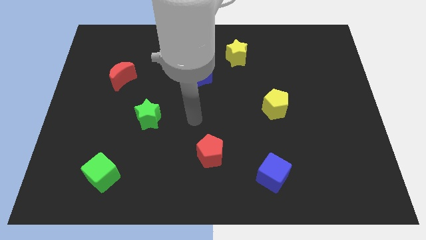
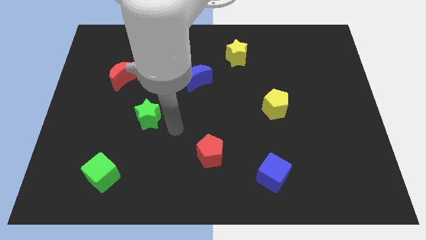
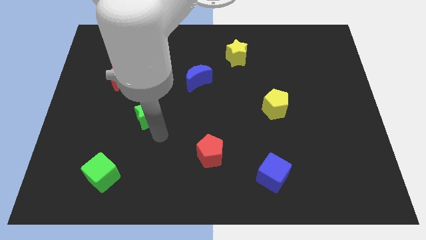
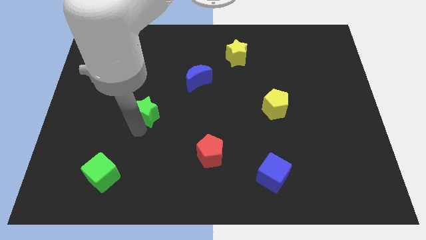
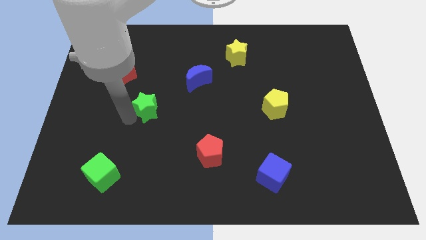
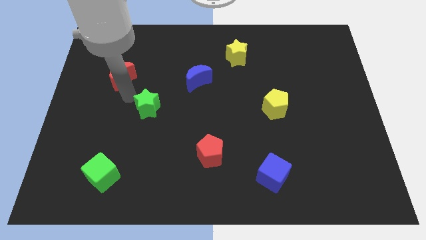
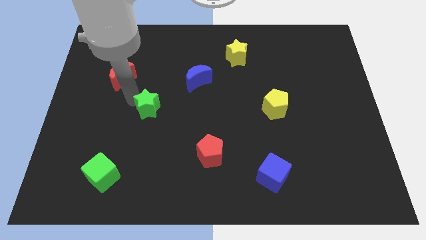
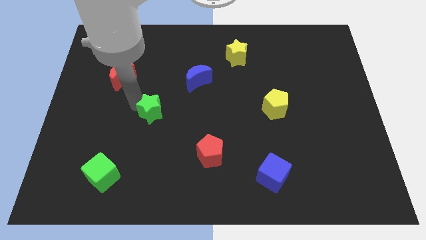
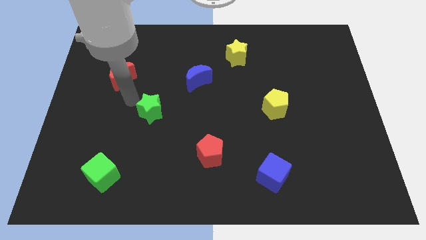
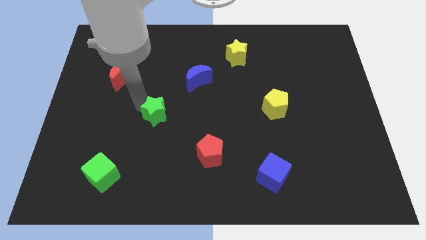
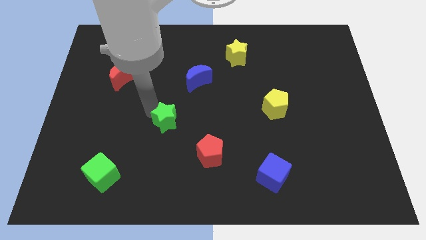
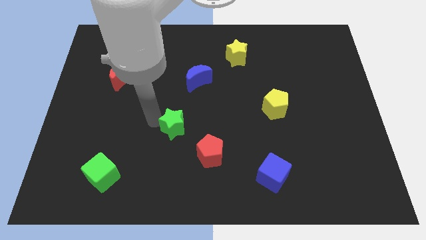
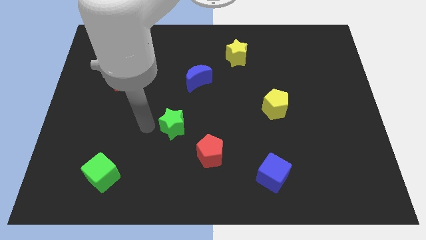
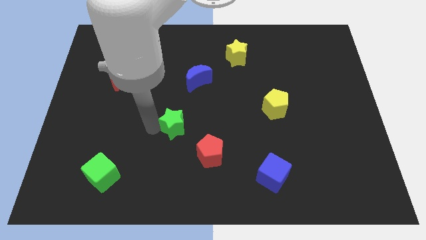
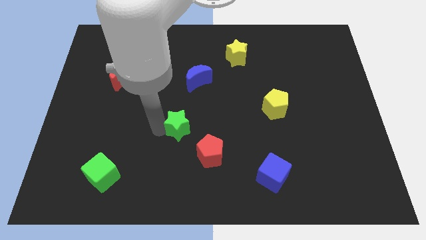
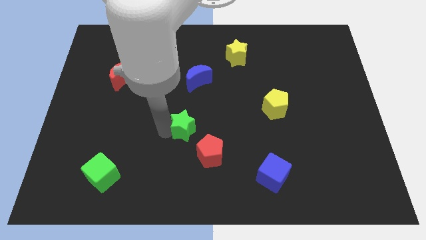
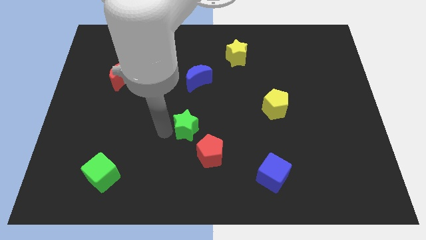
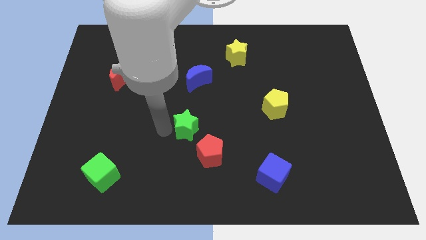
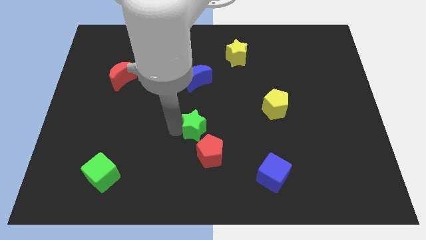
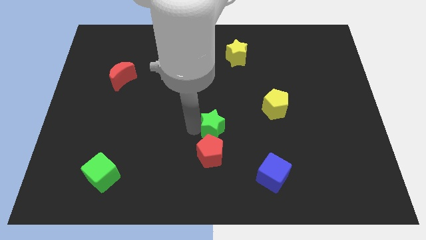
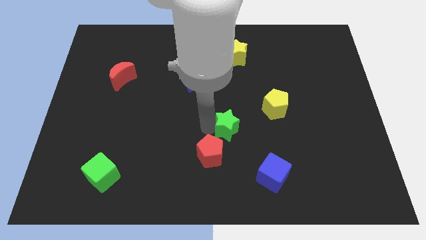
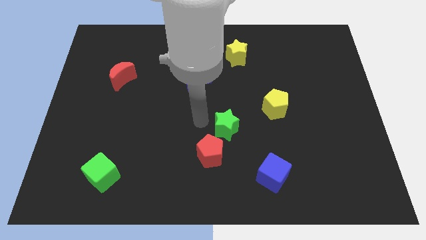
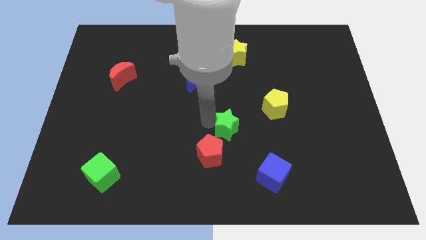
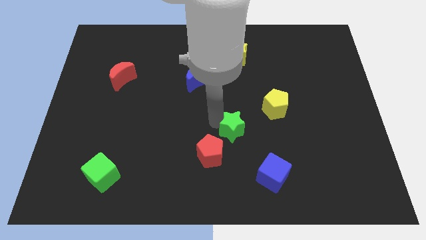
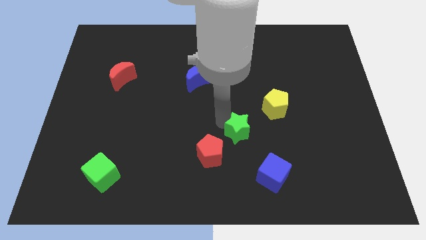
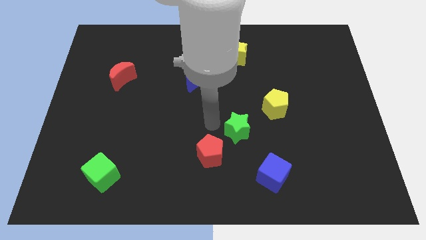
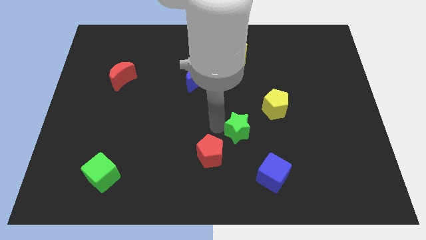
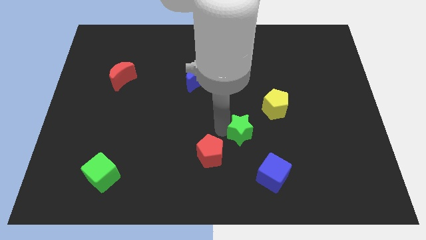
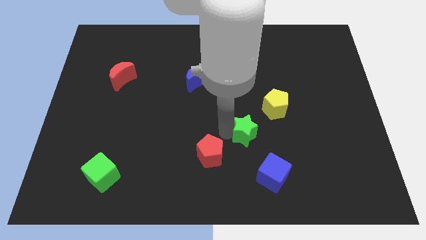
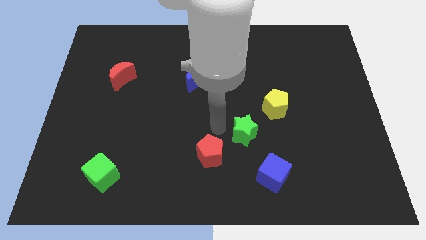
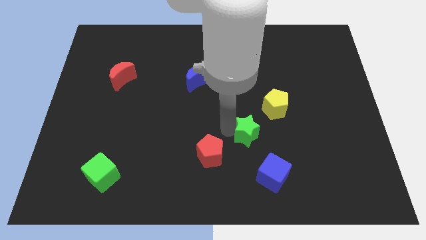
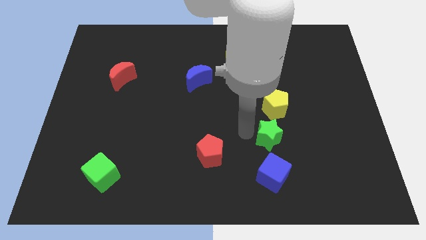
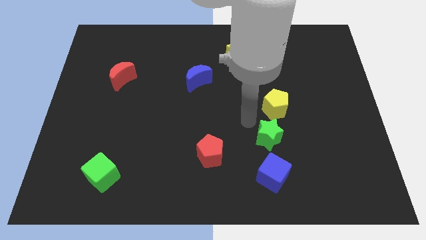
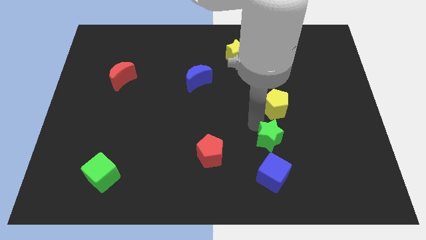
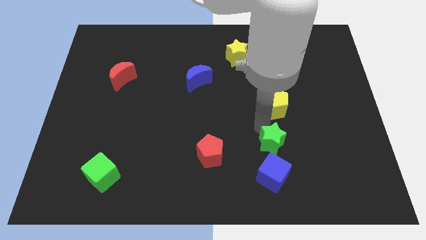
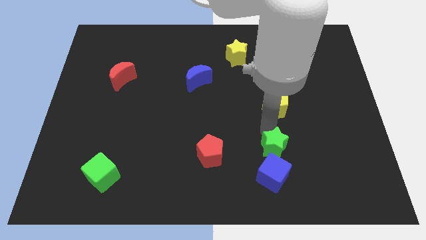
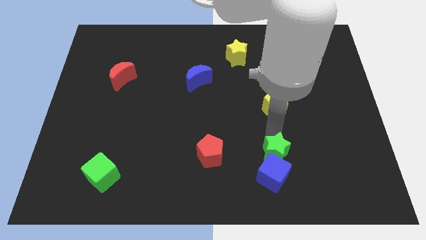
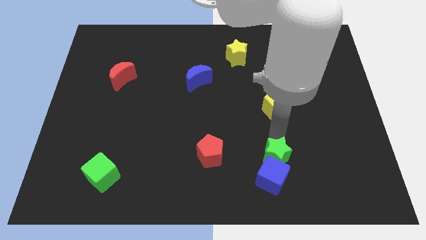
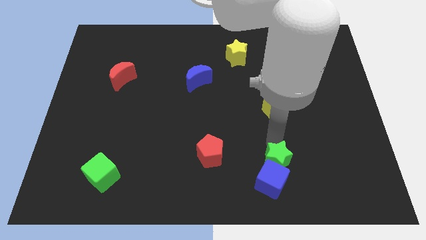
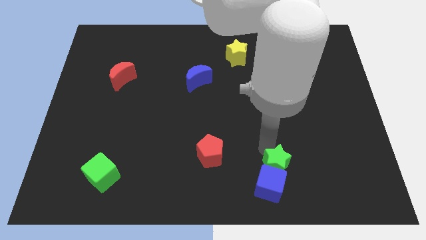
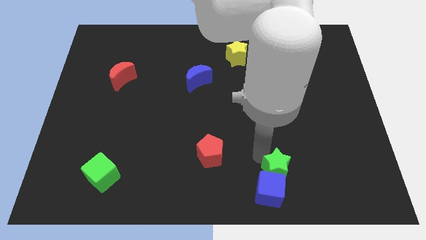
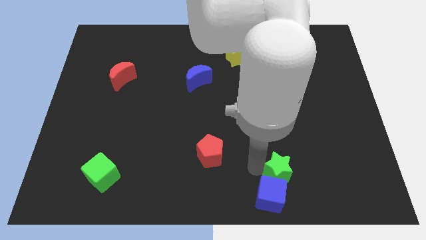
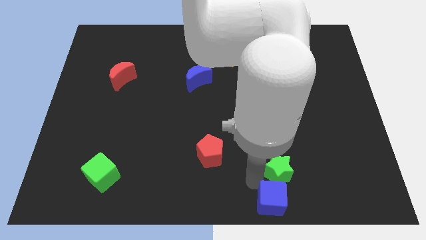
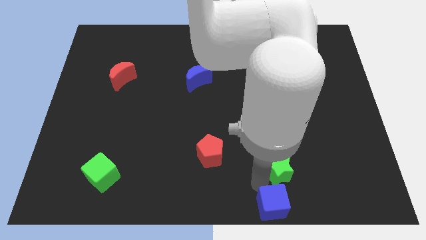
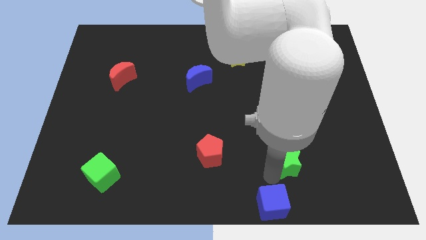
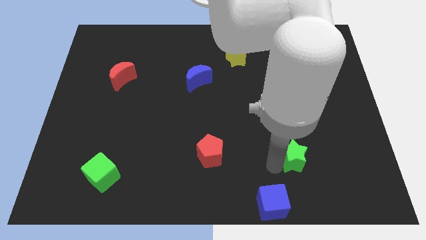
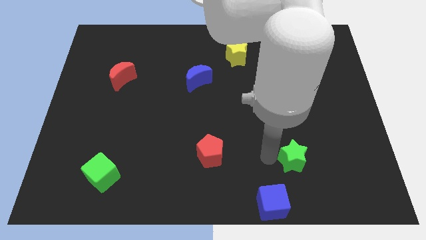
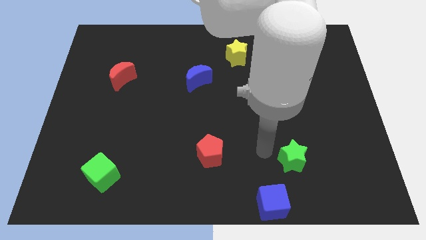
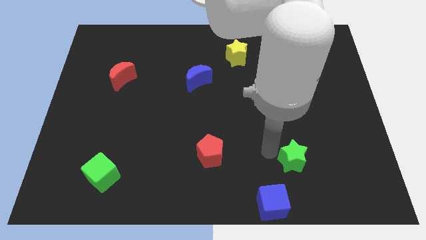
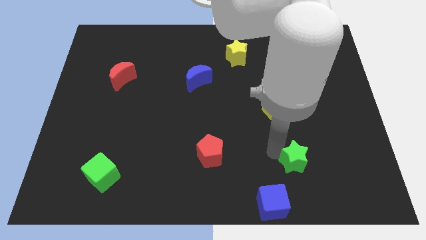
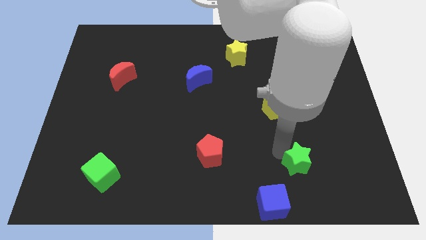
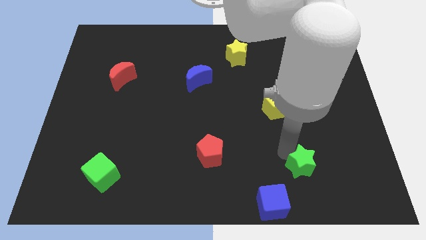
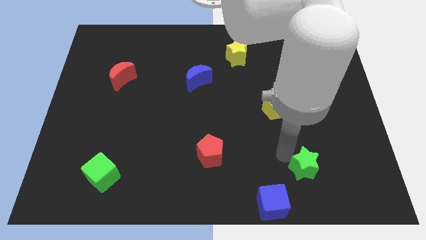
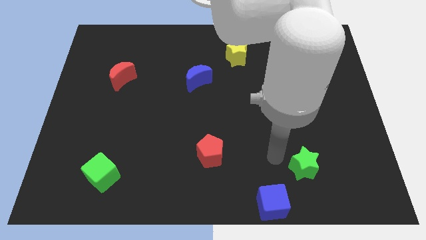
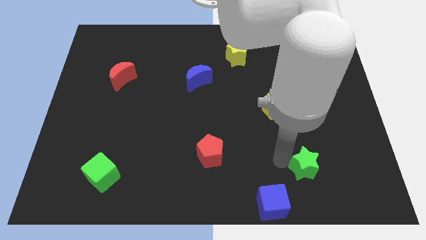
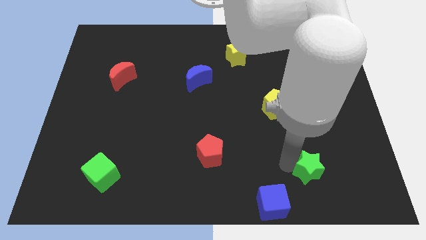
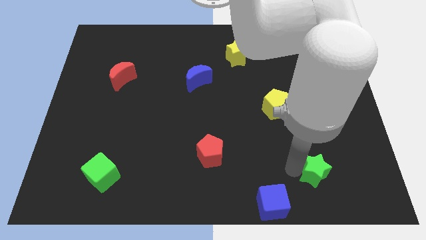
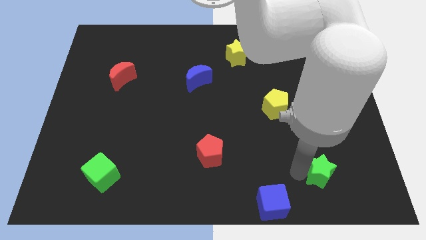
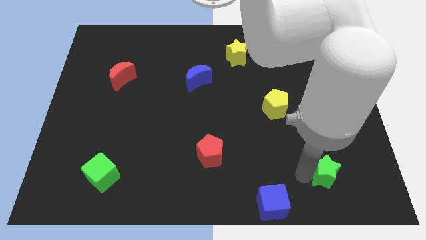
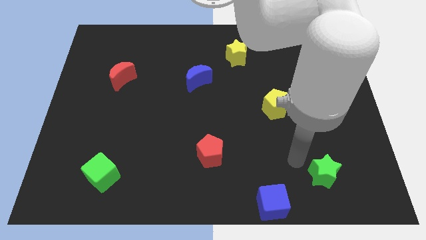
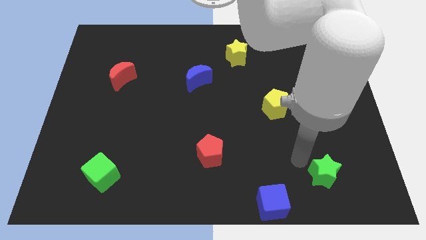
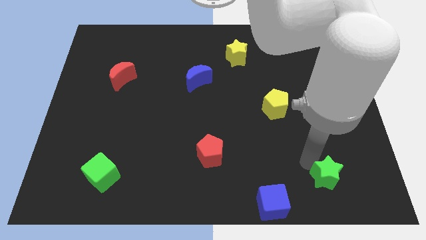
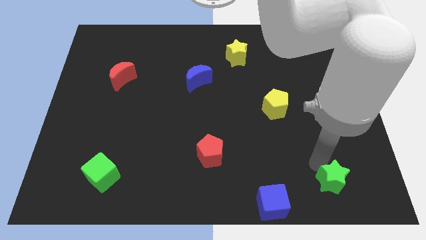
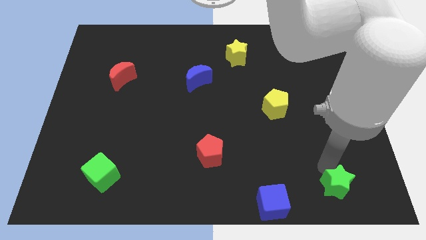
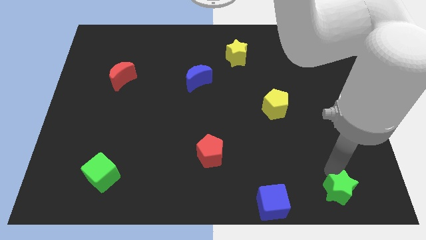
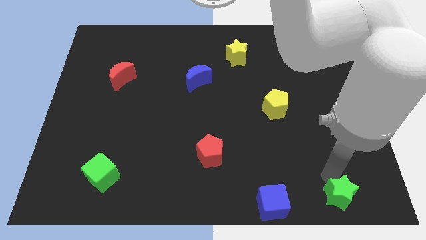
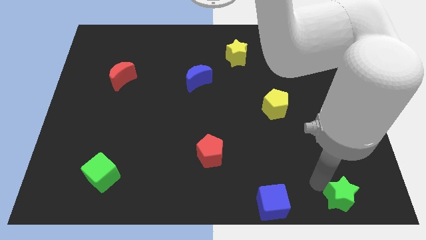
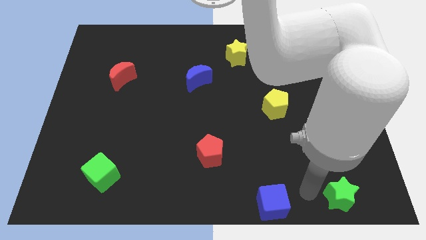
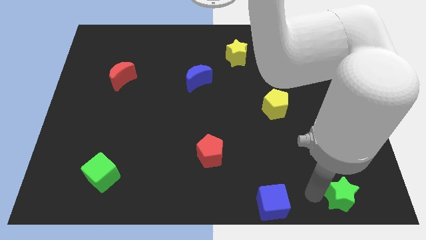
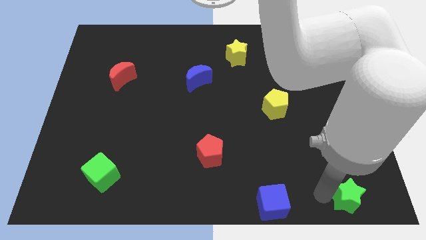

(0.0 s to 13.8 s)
slide the green star to the bottom right
